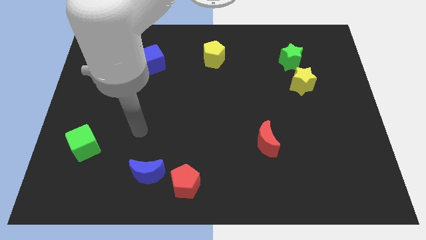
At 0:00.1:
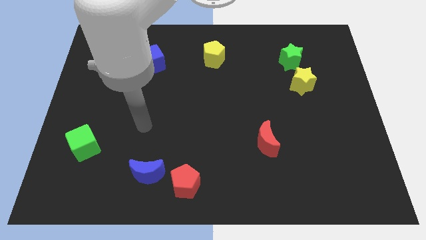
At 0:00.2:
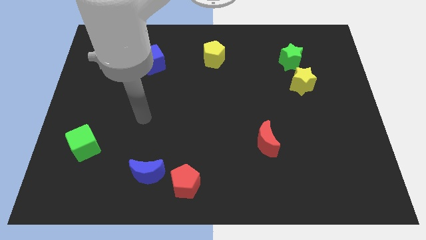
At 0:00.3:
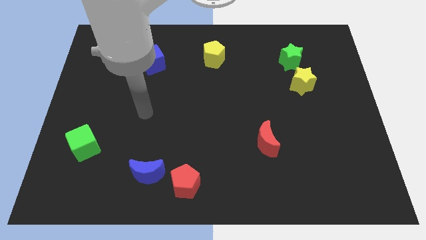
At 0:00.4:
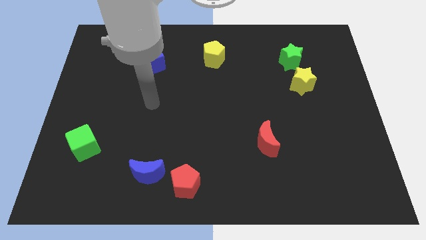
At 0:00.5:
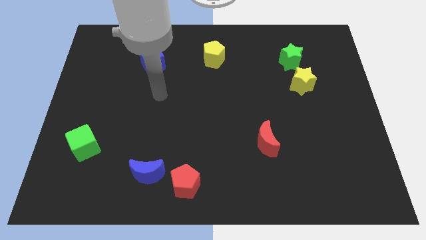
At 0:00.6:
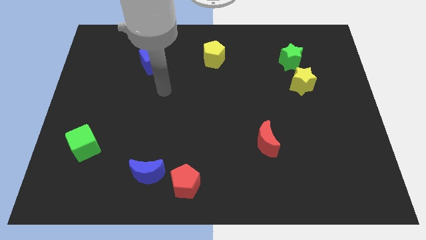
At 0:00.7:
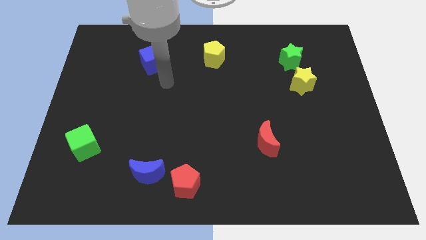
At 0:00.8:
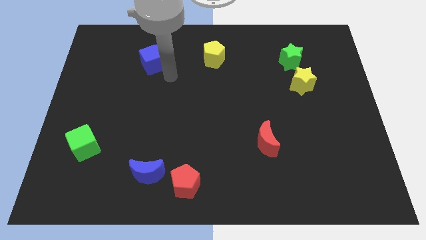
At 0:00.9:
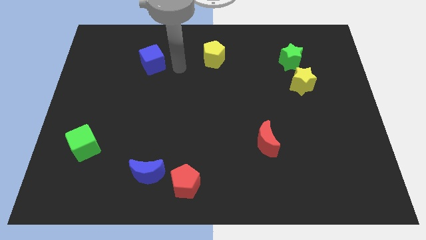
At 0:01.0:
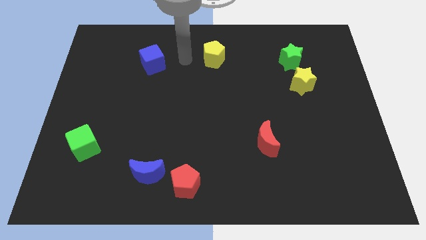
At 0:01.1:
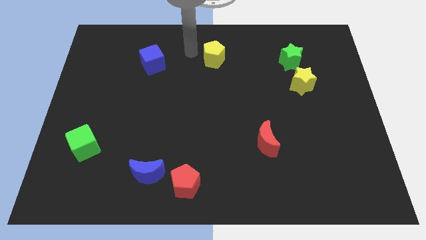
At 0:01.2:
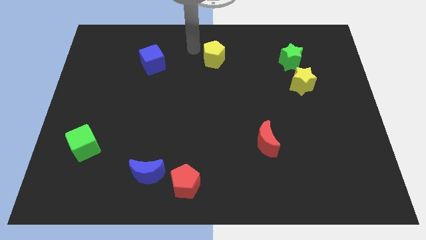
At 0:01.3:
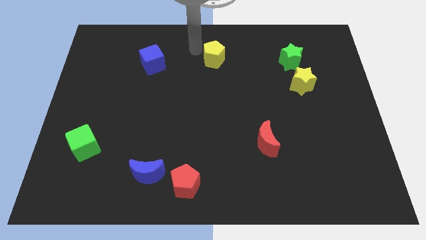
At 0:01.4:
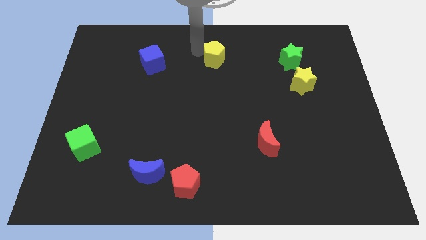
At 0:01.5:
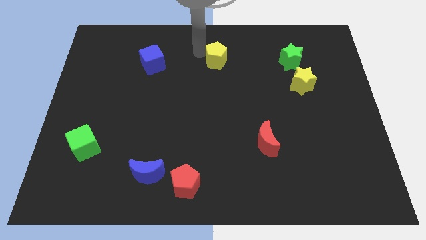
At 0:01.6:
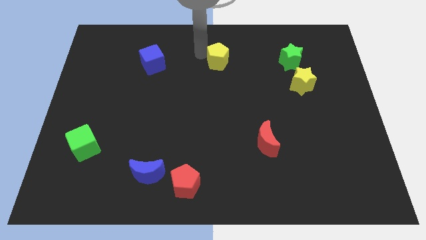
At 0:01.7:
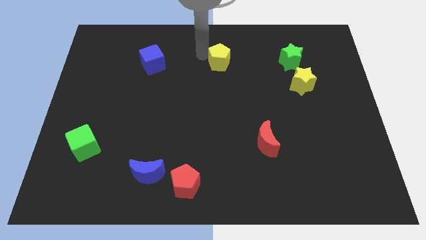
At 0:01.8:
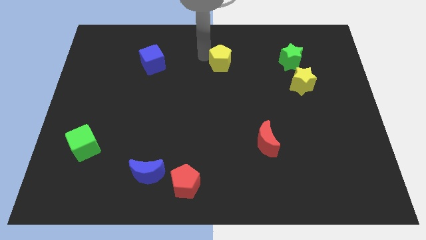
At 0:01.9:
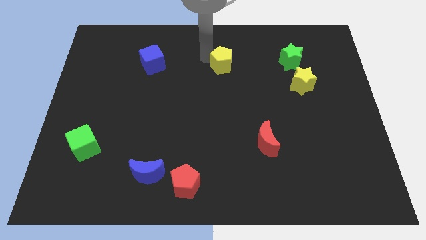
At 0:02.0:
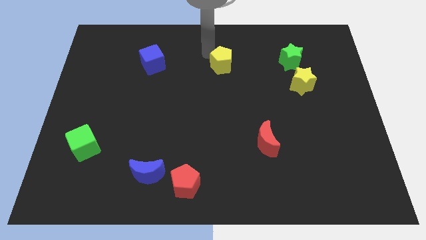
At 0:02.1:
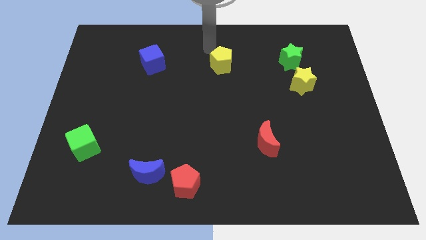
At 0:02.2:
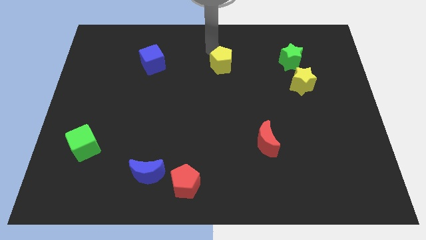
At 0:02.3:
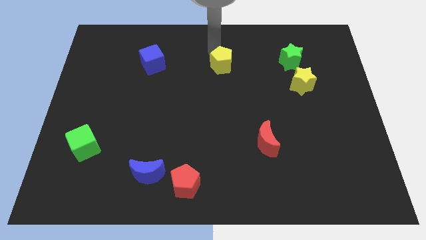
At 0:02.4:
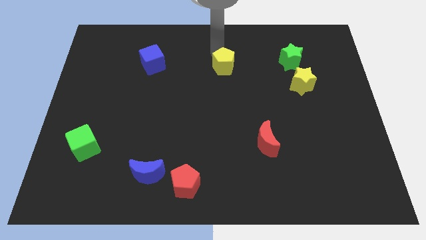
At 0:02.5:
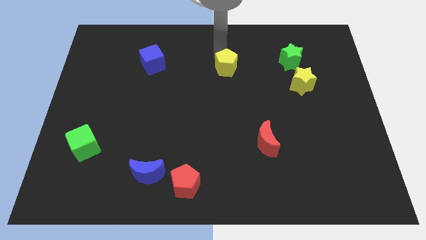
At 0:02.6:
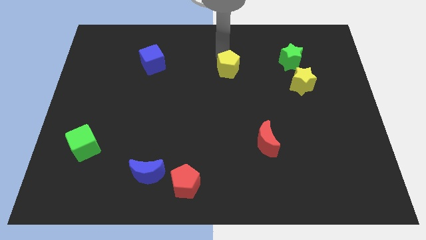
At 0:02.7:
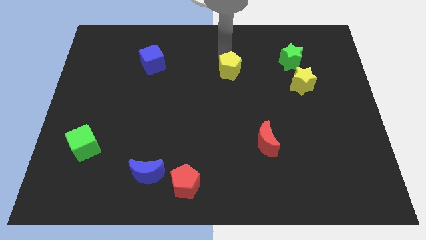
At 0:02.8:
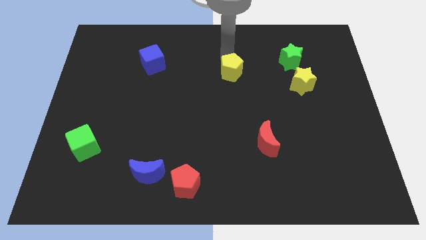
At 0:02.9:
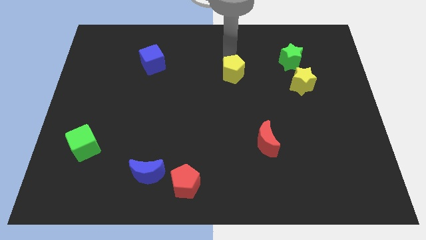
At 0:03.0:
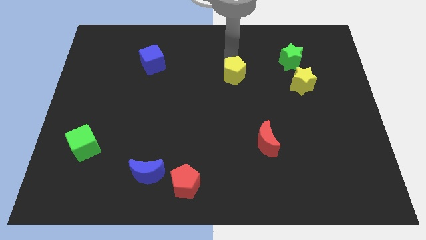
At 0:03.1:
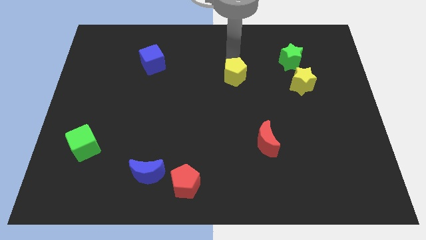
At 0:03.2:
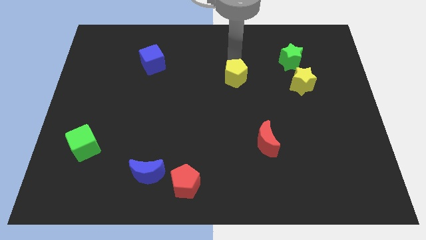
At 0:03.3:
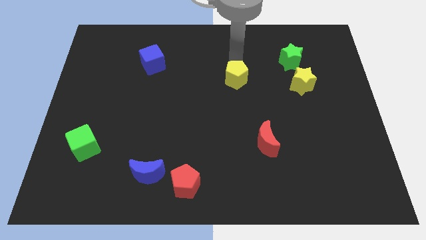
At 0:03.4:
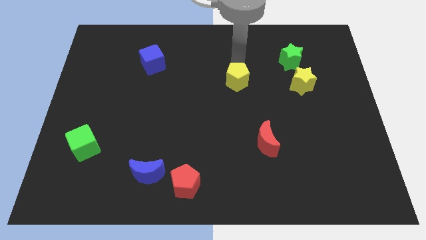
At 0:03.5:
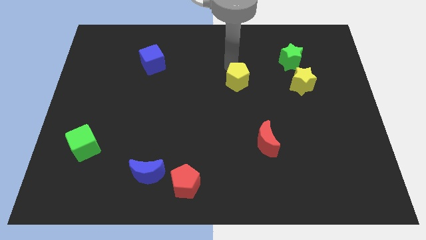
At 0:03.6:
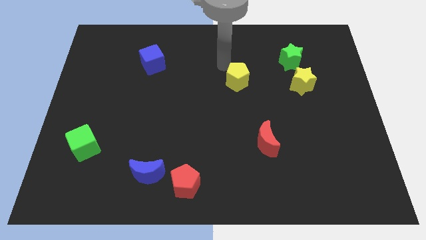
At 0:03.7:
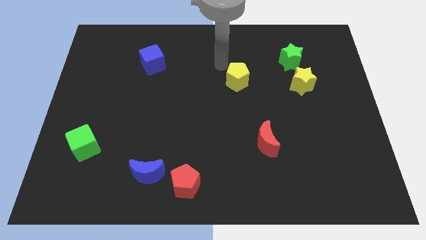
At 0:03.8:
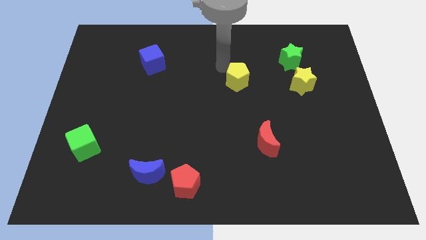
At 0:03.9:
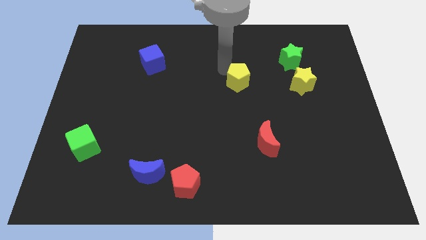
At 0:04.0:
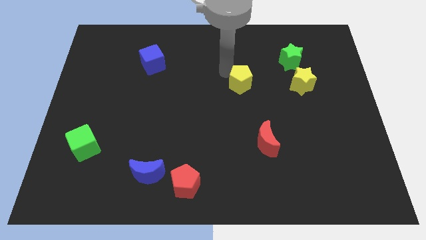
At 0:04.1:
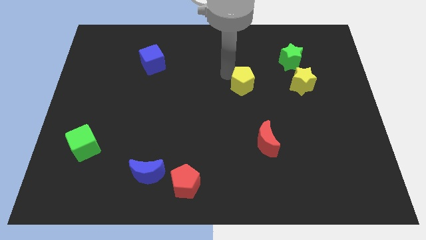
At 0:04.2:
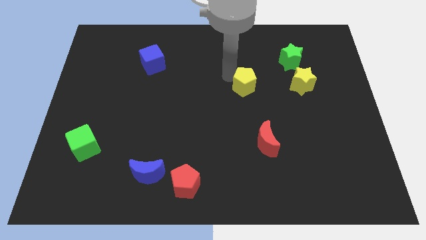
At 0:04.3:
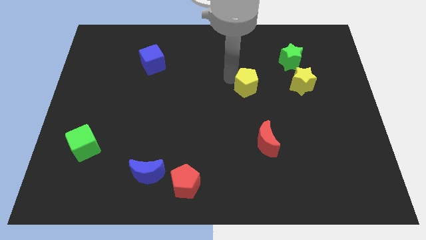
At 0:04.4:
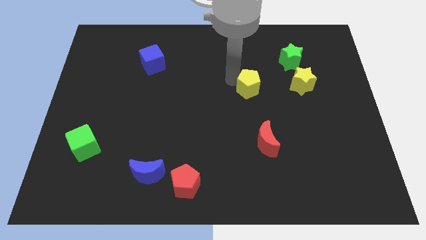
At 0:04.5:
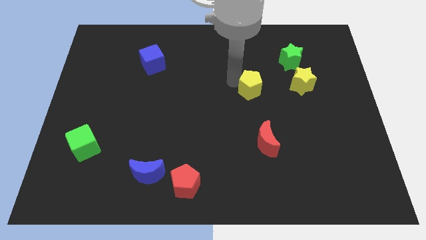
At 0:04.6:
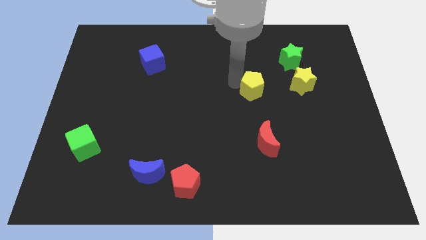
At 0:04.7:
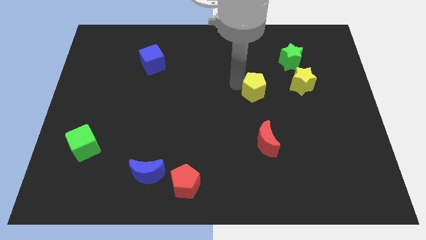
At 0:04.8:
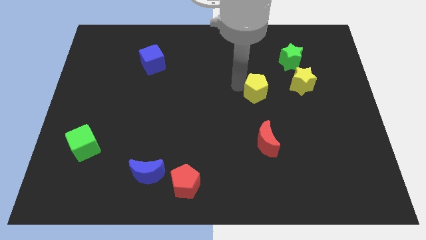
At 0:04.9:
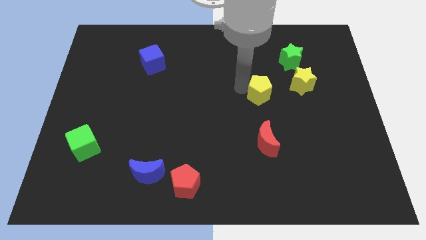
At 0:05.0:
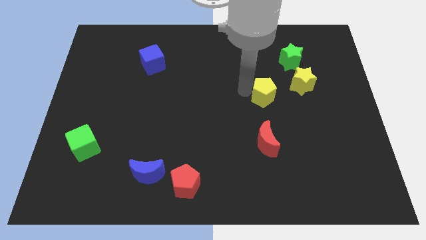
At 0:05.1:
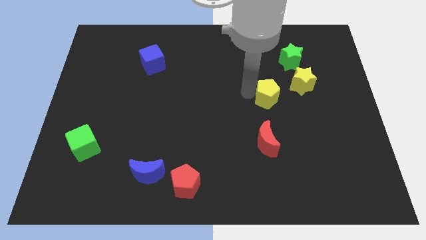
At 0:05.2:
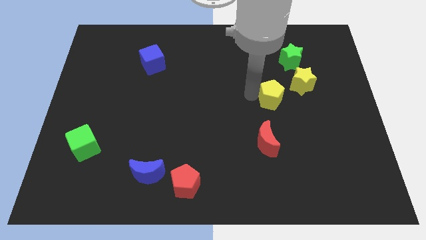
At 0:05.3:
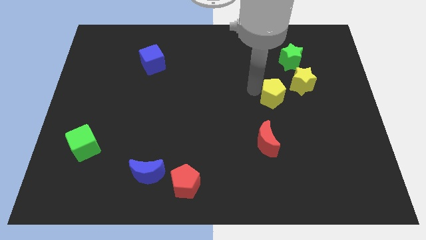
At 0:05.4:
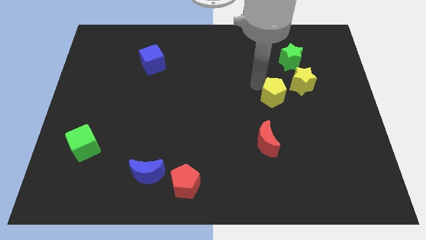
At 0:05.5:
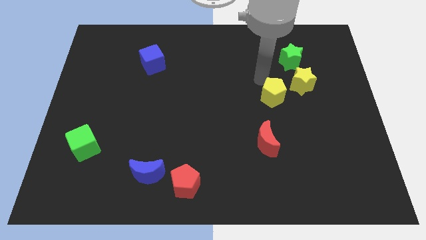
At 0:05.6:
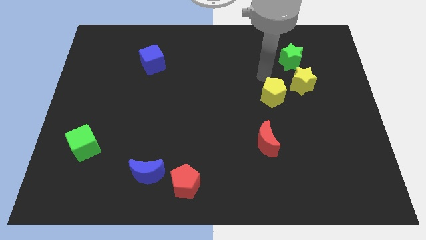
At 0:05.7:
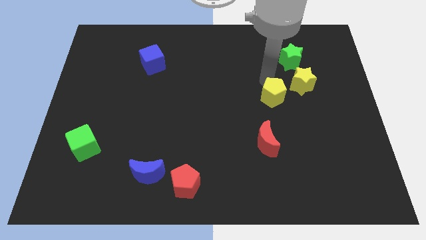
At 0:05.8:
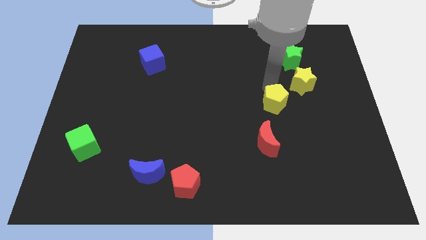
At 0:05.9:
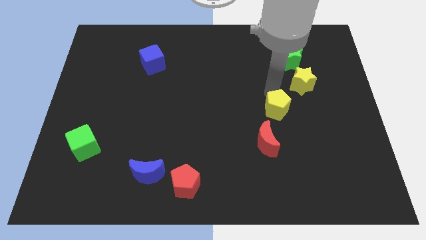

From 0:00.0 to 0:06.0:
put the yellow pentagon to the top right of the red moon

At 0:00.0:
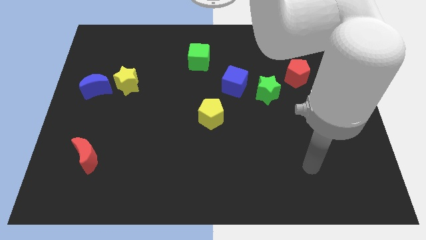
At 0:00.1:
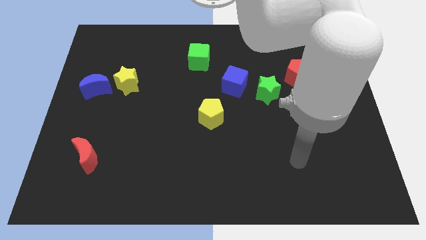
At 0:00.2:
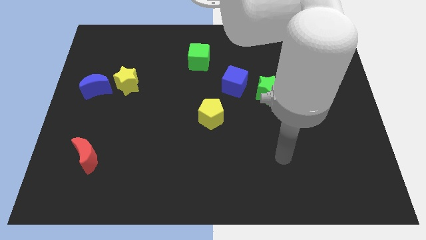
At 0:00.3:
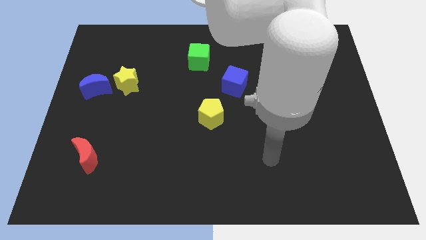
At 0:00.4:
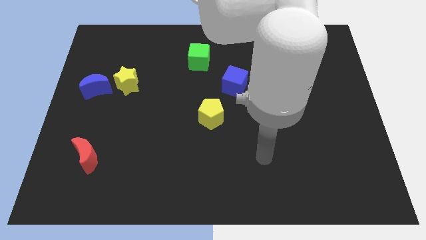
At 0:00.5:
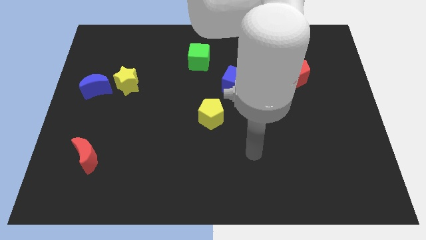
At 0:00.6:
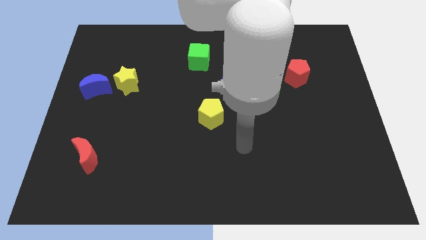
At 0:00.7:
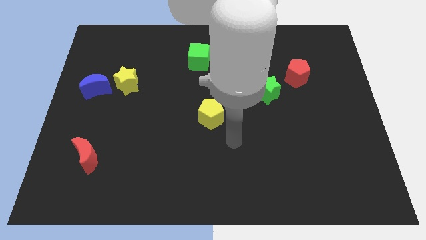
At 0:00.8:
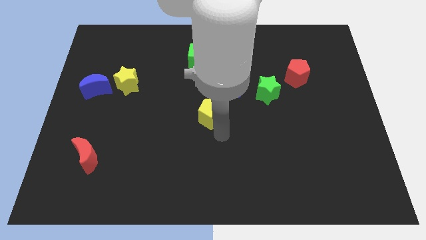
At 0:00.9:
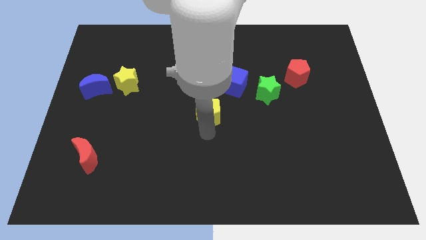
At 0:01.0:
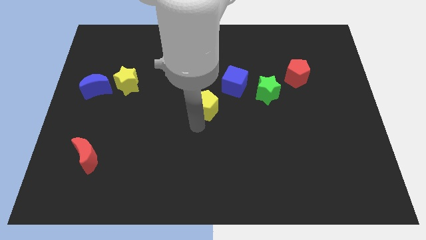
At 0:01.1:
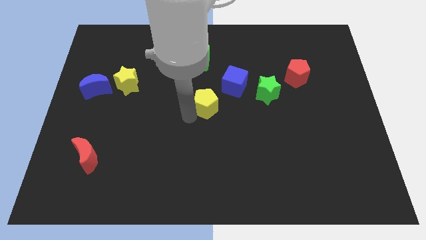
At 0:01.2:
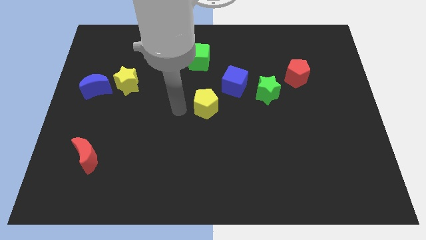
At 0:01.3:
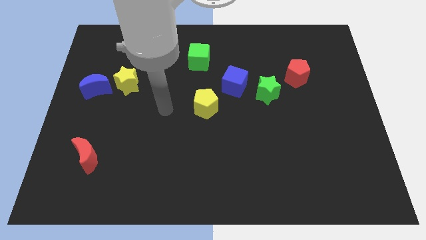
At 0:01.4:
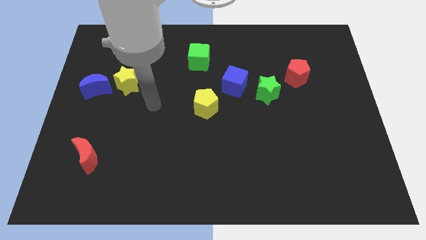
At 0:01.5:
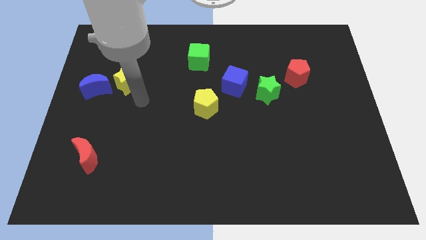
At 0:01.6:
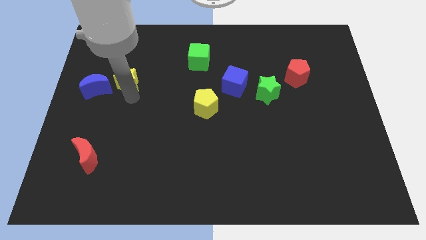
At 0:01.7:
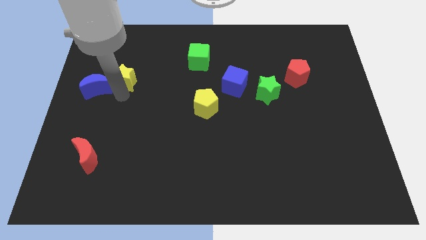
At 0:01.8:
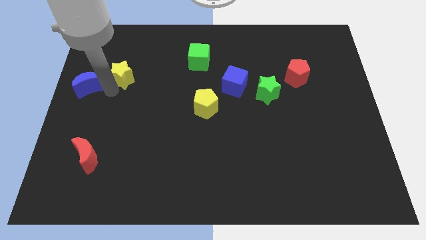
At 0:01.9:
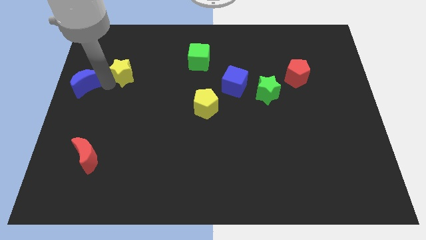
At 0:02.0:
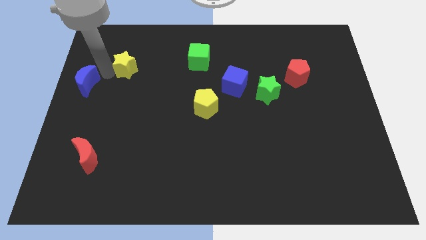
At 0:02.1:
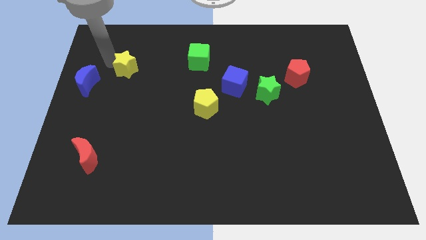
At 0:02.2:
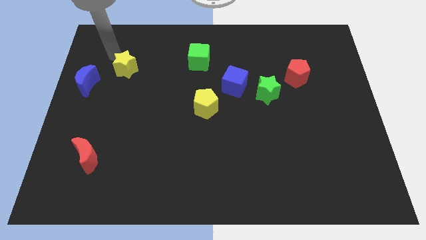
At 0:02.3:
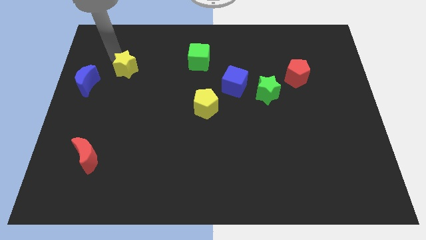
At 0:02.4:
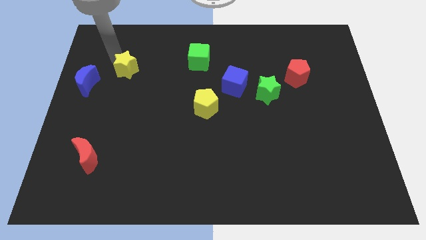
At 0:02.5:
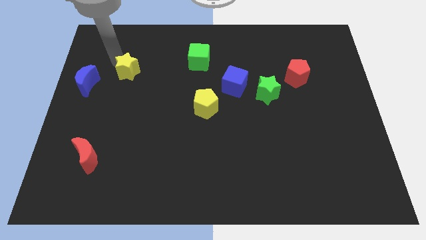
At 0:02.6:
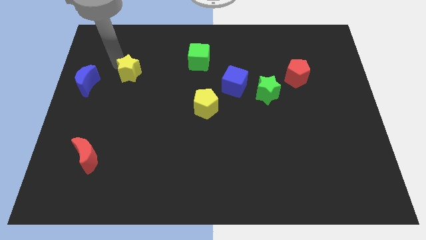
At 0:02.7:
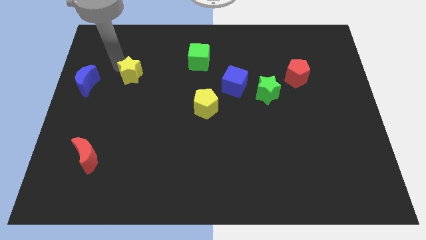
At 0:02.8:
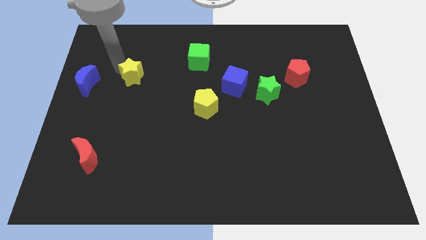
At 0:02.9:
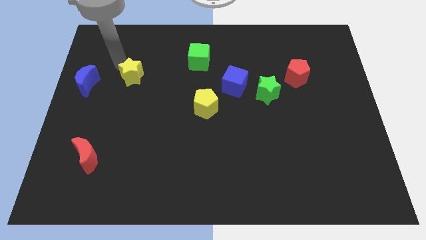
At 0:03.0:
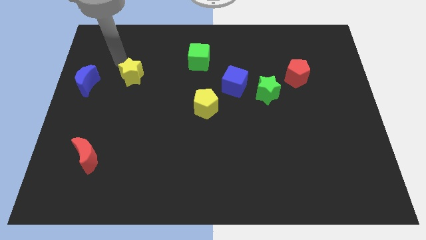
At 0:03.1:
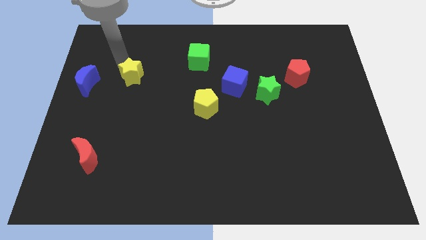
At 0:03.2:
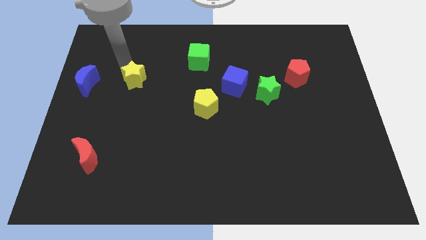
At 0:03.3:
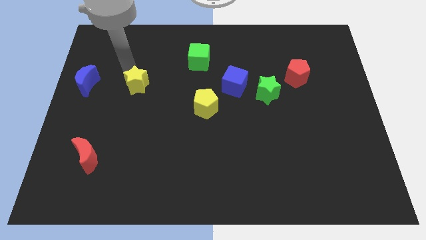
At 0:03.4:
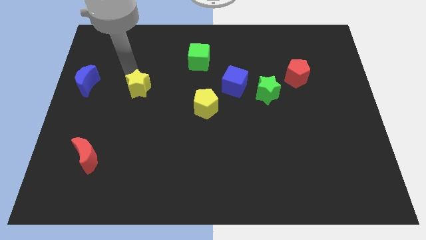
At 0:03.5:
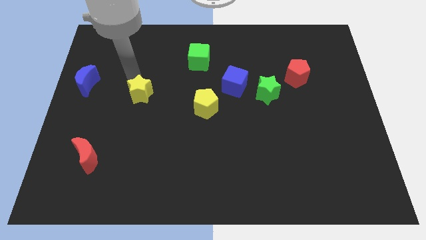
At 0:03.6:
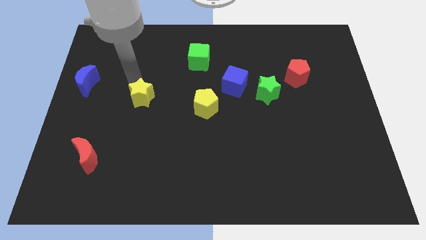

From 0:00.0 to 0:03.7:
put the yellow star just left of the yellow pentagon
